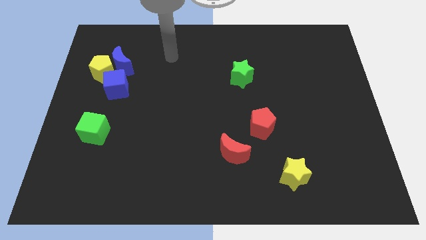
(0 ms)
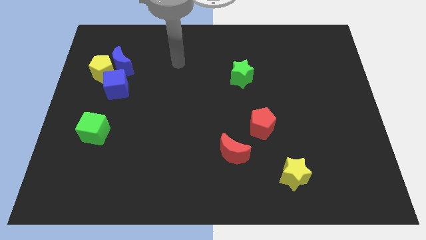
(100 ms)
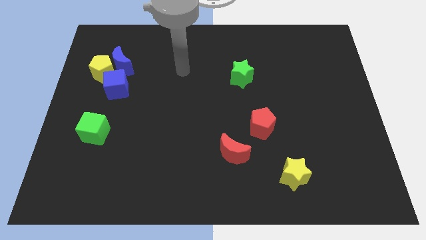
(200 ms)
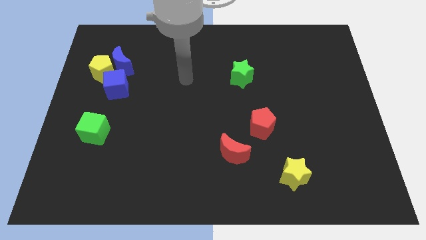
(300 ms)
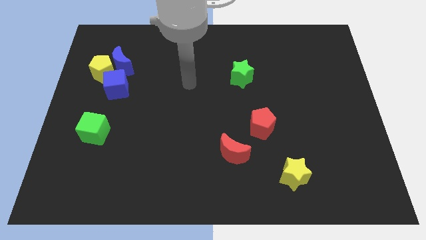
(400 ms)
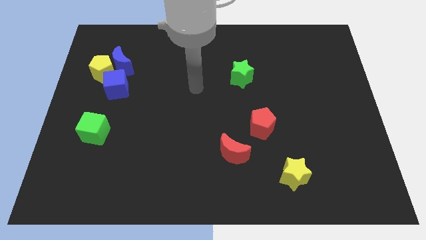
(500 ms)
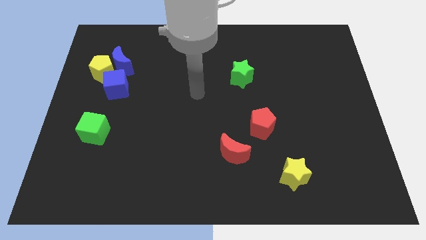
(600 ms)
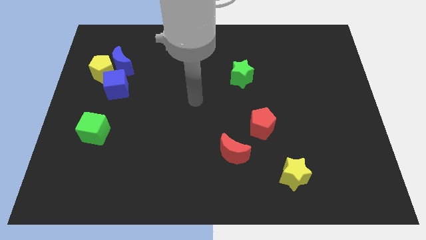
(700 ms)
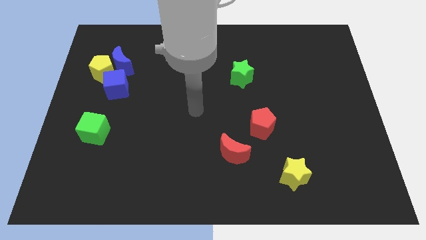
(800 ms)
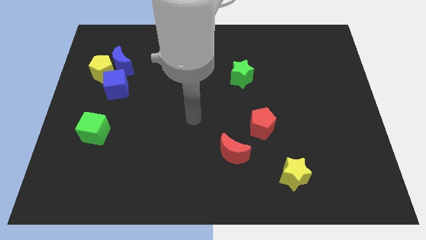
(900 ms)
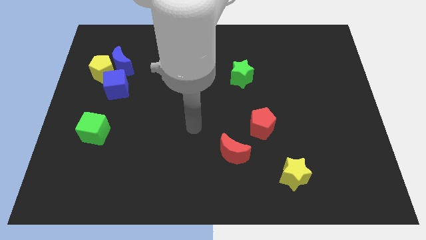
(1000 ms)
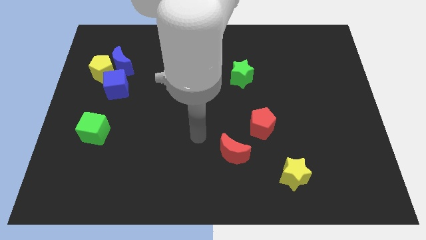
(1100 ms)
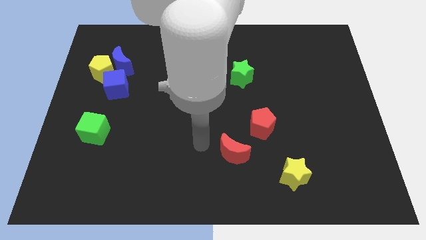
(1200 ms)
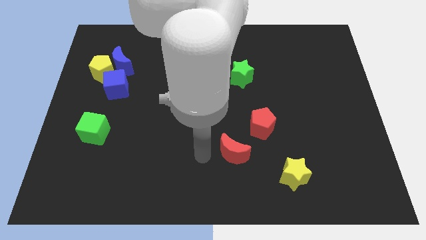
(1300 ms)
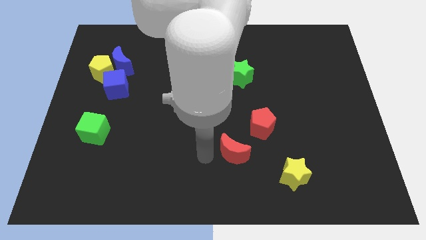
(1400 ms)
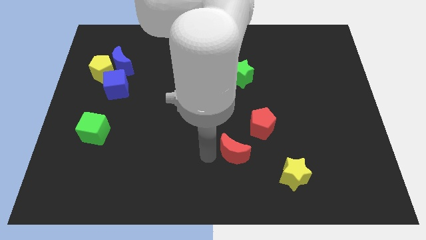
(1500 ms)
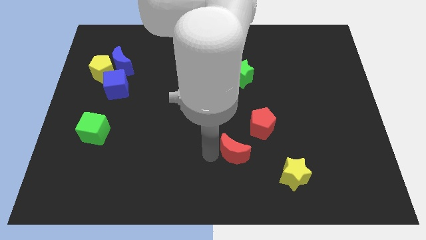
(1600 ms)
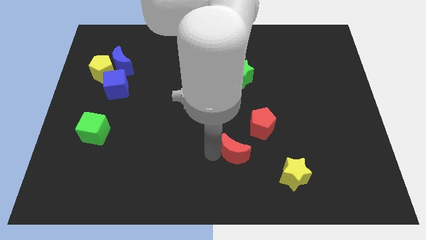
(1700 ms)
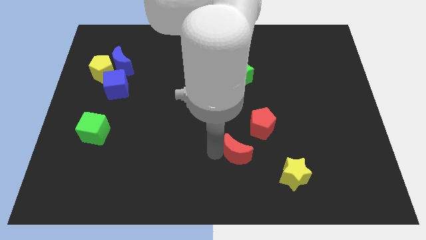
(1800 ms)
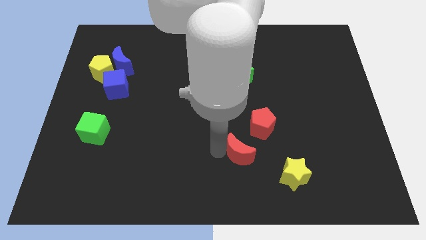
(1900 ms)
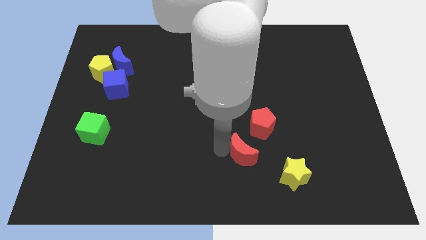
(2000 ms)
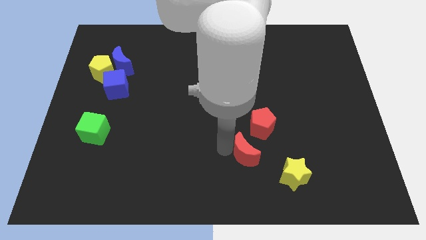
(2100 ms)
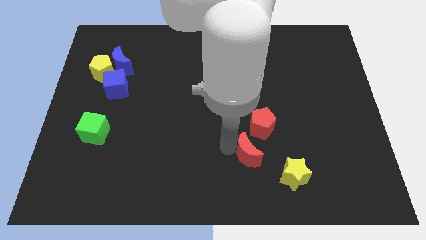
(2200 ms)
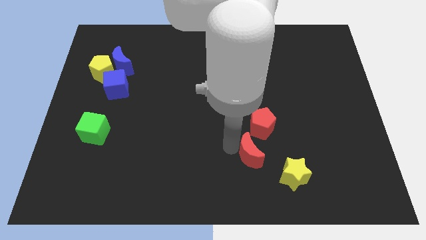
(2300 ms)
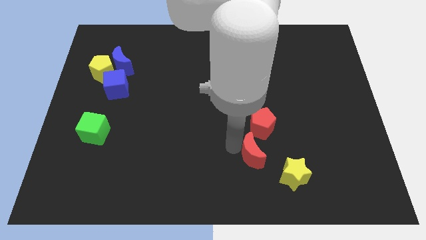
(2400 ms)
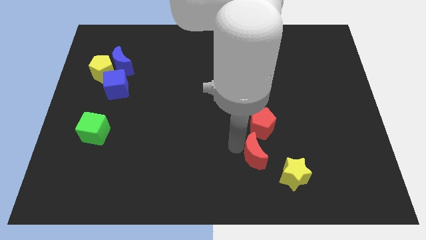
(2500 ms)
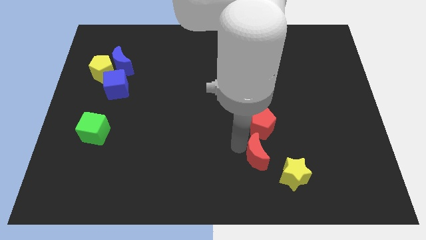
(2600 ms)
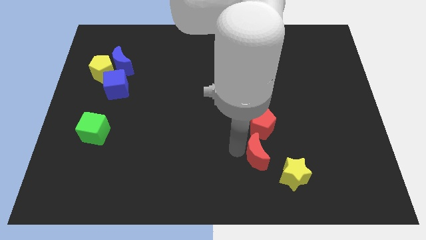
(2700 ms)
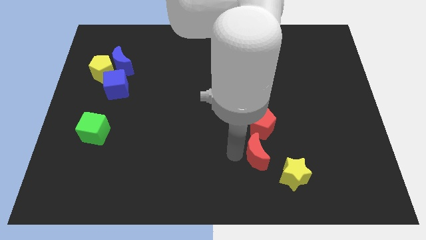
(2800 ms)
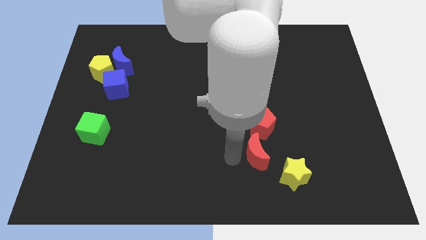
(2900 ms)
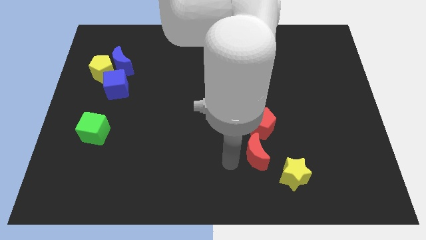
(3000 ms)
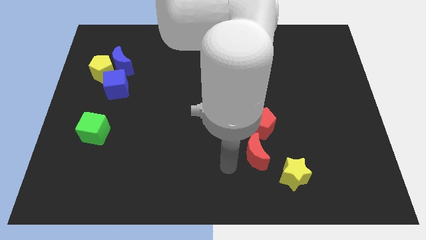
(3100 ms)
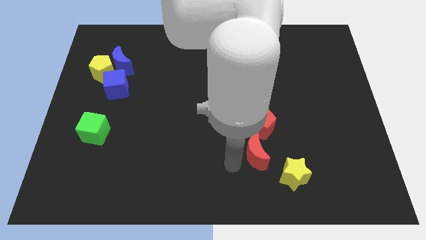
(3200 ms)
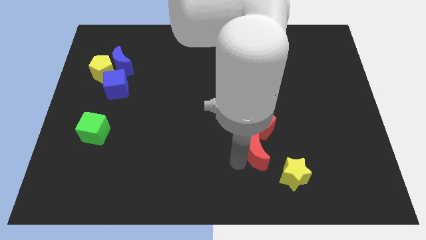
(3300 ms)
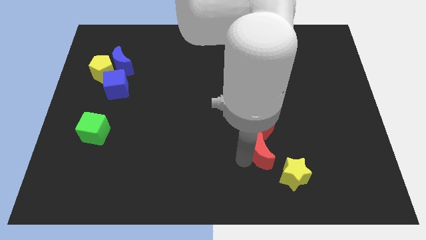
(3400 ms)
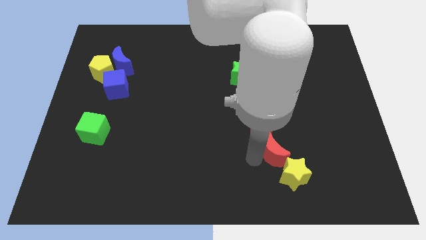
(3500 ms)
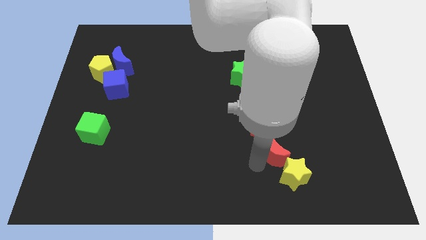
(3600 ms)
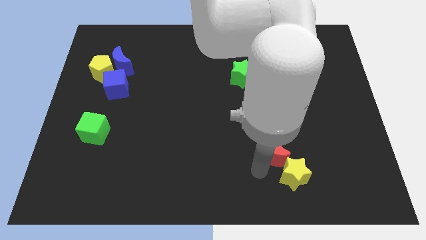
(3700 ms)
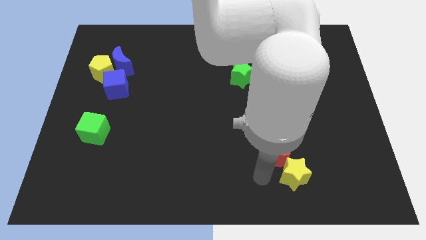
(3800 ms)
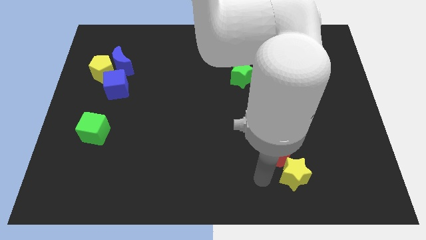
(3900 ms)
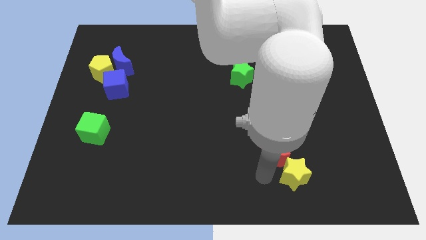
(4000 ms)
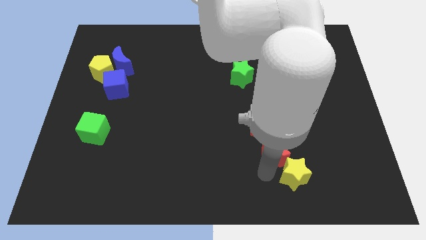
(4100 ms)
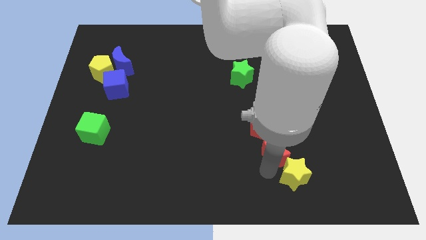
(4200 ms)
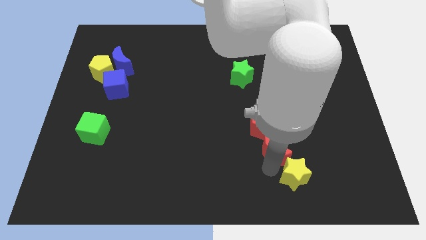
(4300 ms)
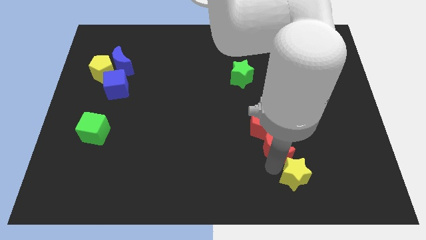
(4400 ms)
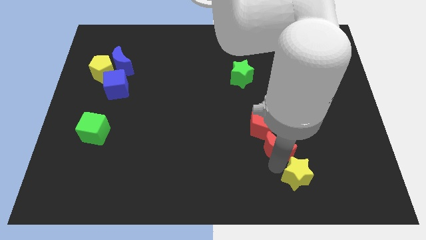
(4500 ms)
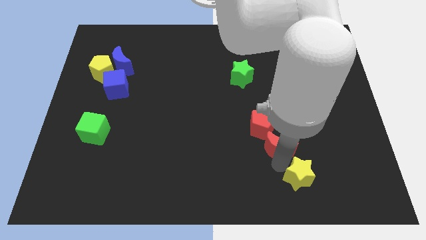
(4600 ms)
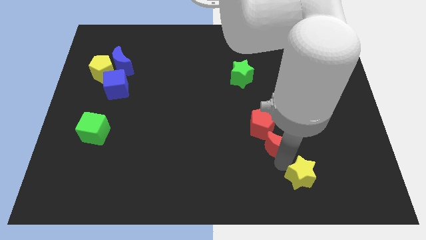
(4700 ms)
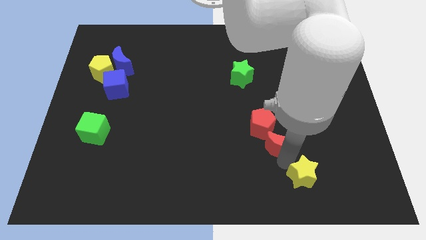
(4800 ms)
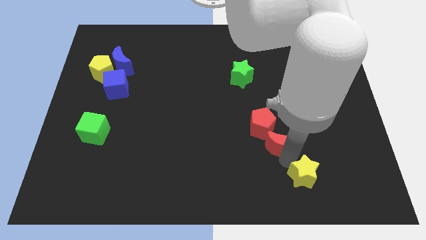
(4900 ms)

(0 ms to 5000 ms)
slightly move the red moon upwards and right diagonally

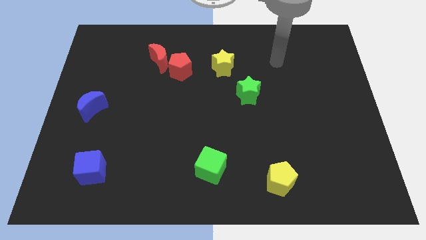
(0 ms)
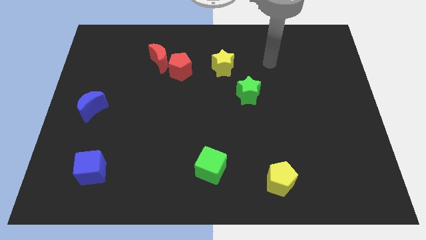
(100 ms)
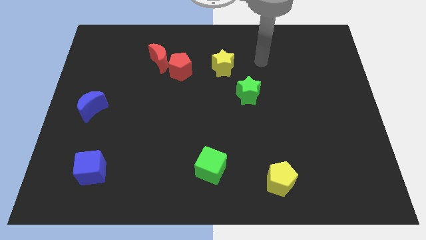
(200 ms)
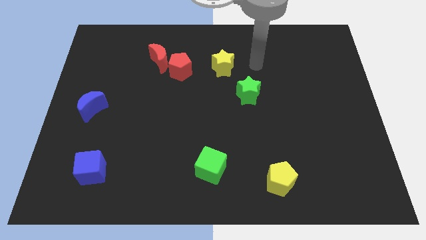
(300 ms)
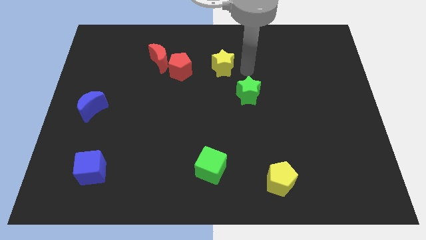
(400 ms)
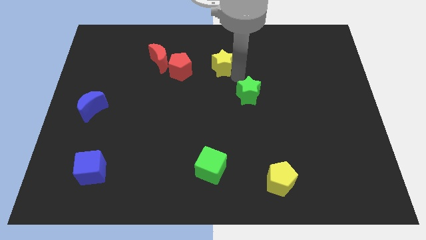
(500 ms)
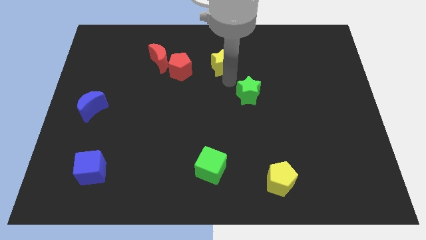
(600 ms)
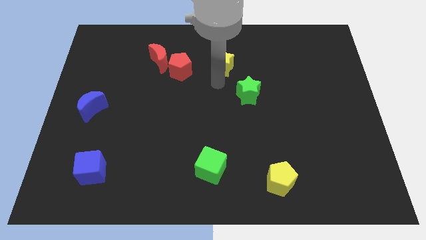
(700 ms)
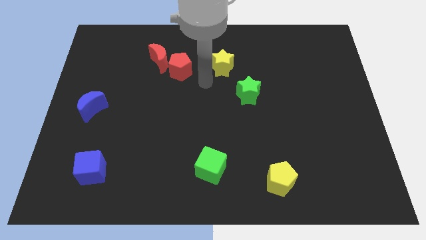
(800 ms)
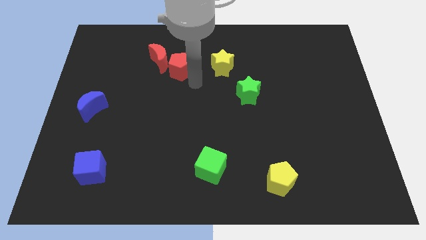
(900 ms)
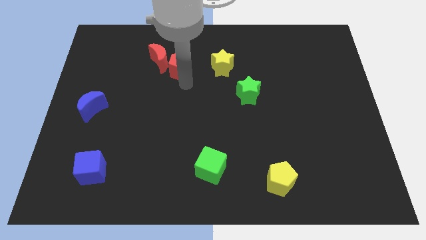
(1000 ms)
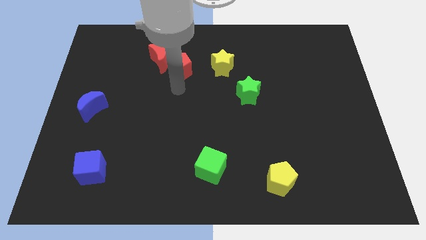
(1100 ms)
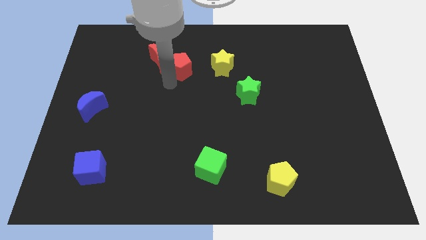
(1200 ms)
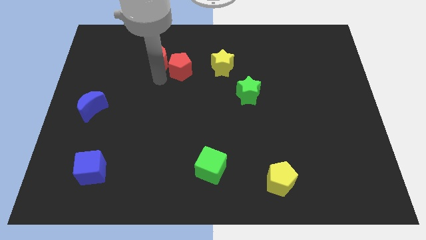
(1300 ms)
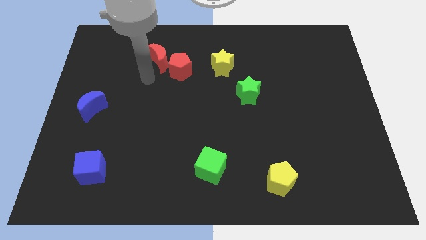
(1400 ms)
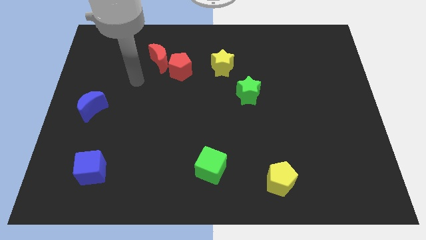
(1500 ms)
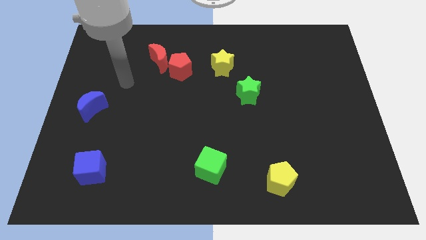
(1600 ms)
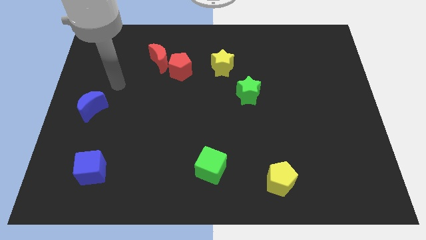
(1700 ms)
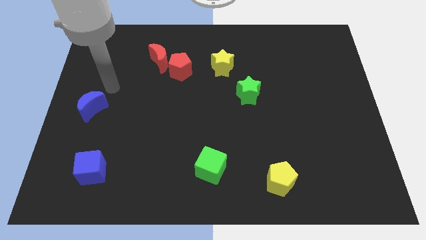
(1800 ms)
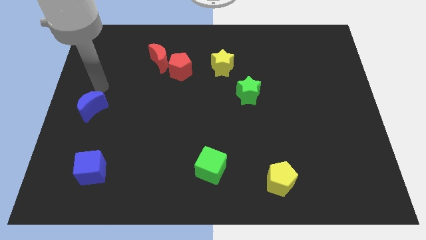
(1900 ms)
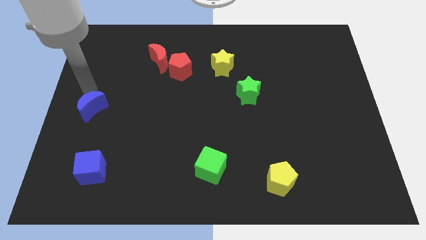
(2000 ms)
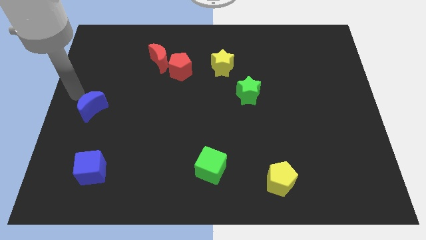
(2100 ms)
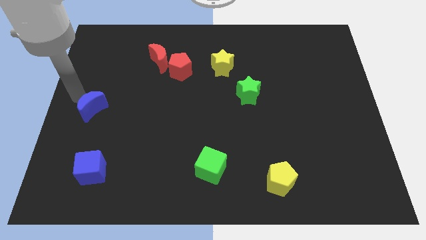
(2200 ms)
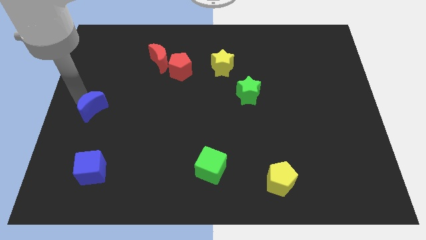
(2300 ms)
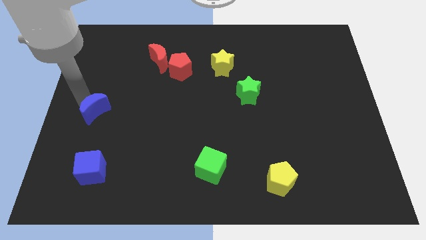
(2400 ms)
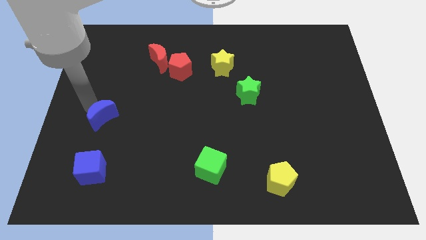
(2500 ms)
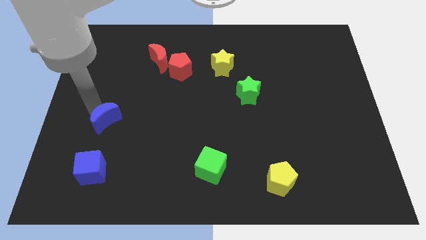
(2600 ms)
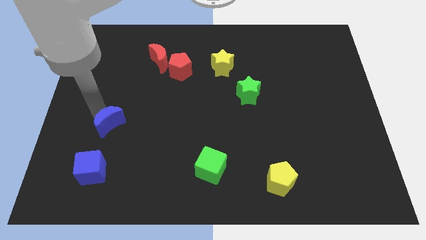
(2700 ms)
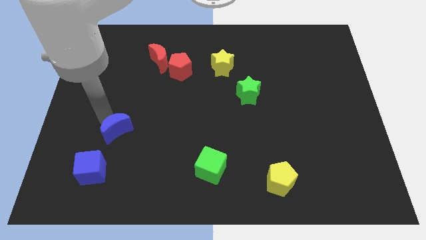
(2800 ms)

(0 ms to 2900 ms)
move the blue moon down and to the right diagonally somewhat

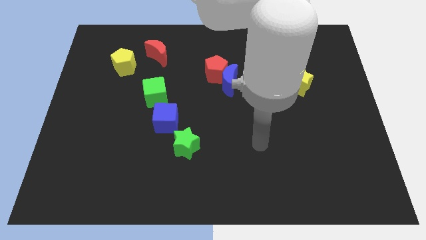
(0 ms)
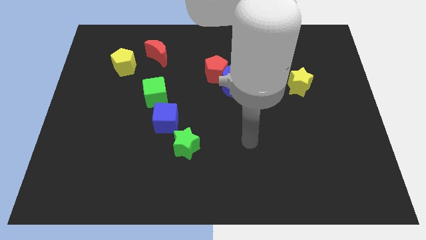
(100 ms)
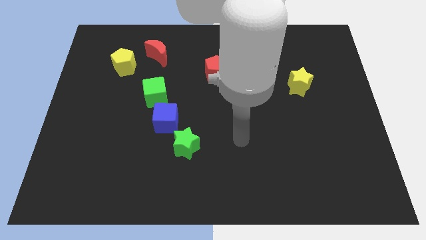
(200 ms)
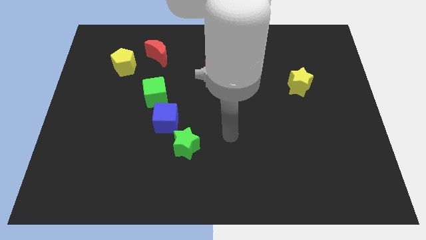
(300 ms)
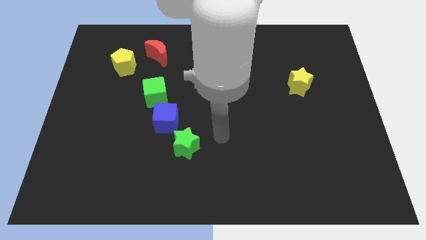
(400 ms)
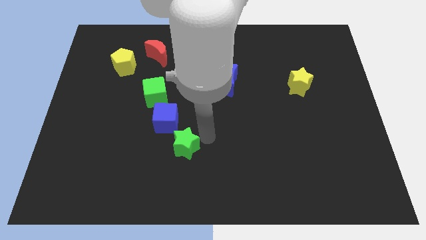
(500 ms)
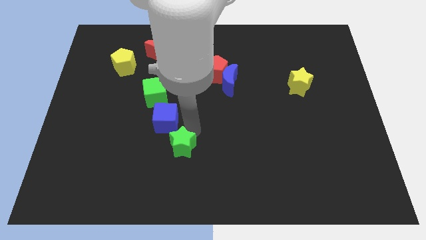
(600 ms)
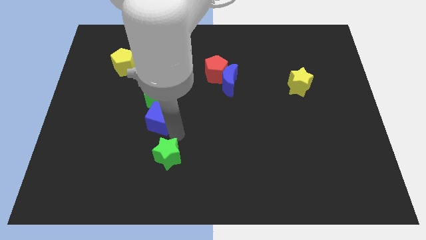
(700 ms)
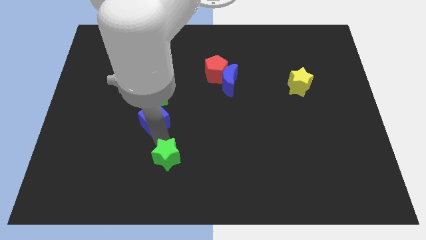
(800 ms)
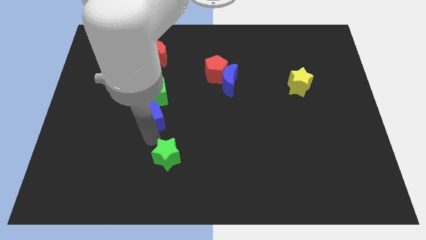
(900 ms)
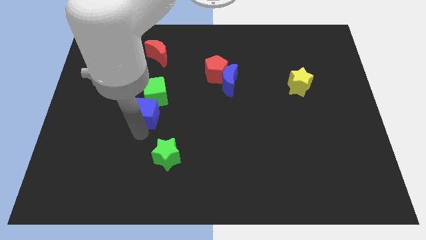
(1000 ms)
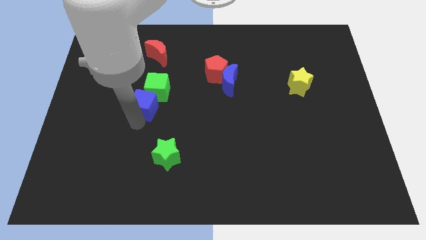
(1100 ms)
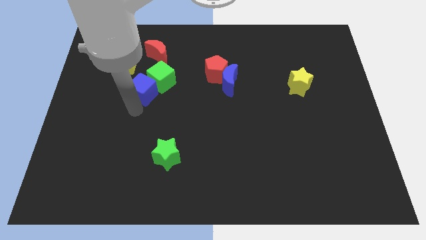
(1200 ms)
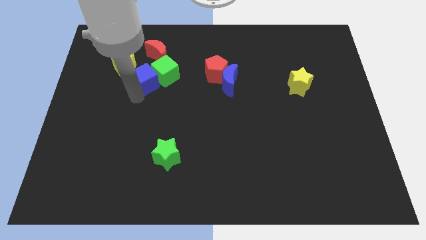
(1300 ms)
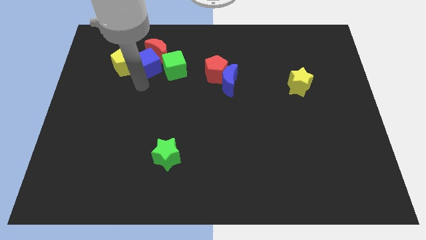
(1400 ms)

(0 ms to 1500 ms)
slide the green cube up and to the right diagonally slightly
